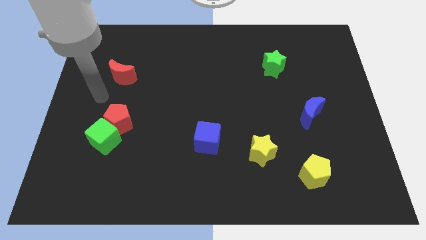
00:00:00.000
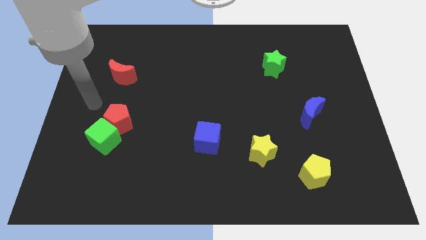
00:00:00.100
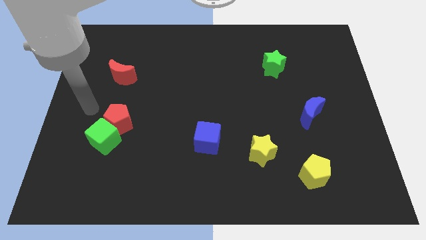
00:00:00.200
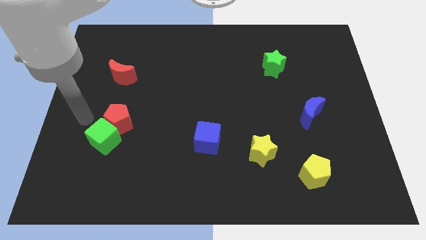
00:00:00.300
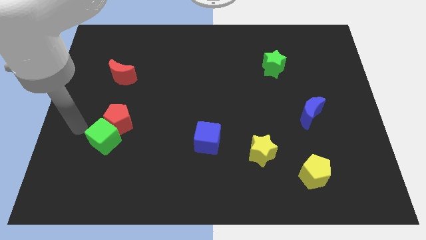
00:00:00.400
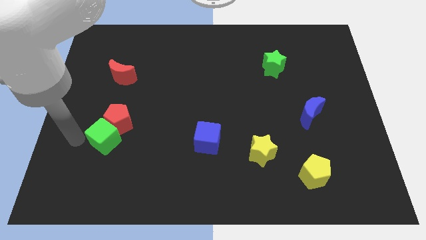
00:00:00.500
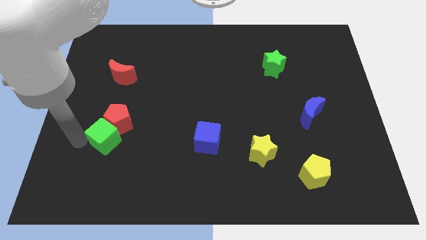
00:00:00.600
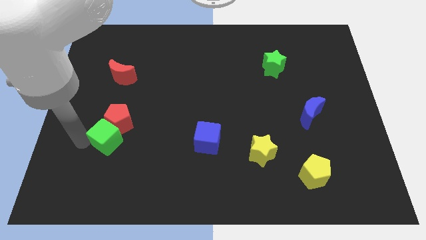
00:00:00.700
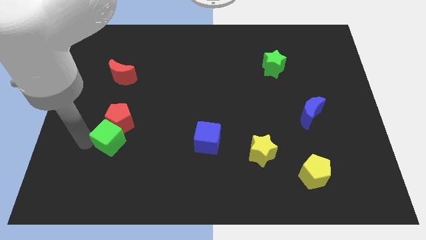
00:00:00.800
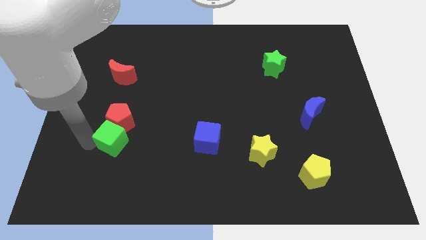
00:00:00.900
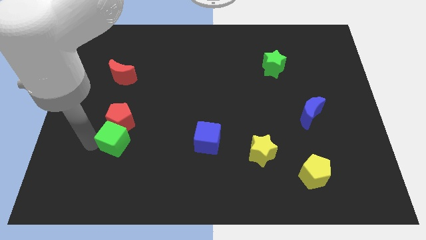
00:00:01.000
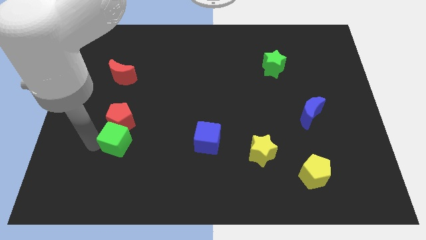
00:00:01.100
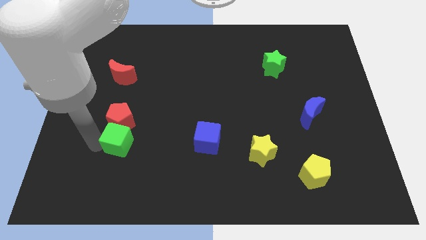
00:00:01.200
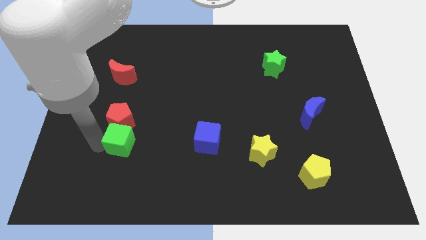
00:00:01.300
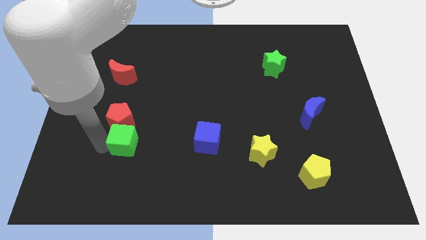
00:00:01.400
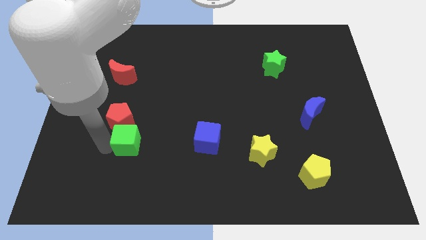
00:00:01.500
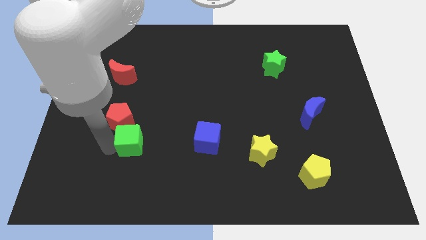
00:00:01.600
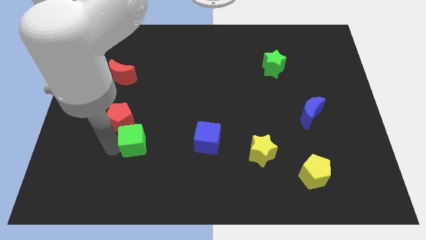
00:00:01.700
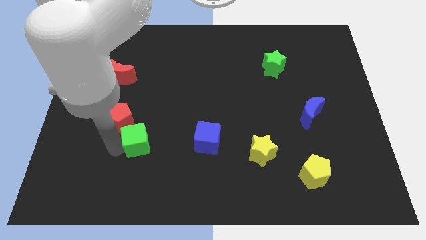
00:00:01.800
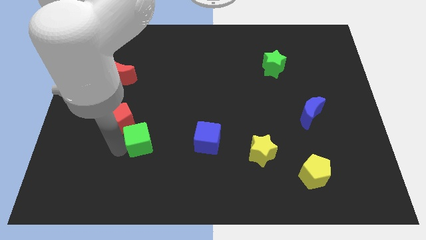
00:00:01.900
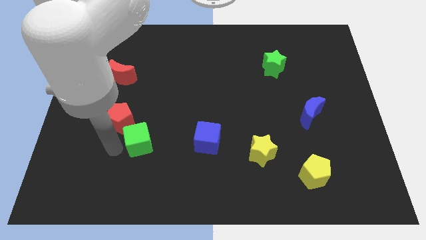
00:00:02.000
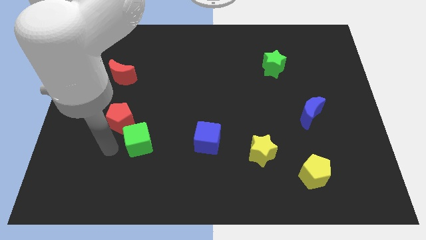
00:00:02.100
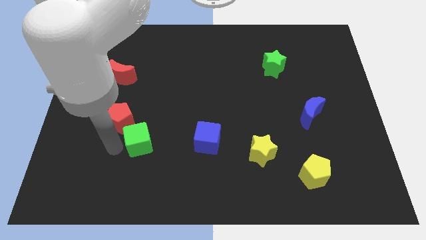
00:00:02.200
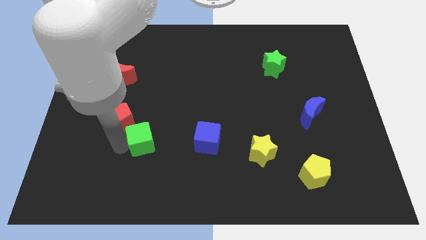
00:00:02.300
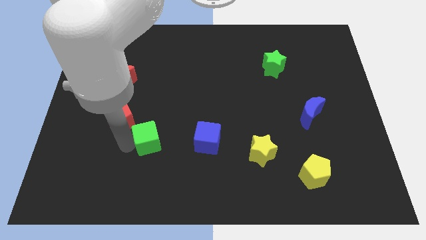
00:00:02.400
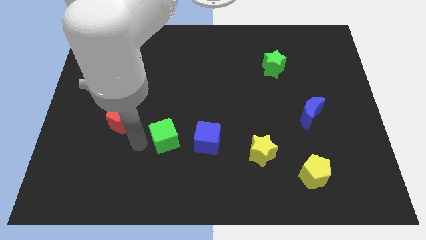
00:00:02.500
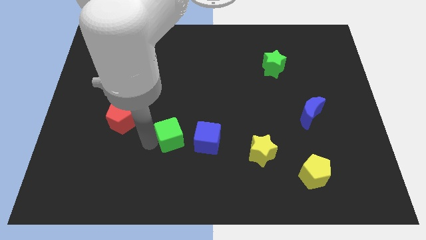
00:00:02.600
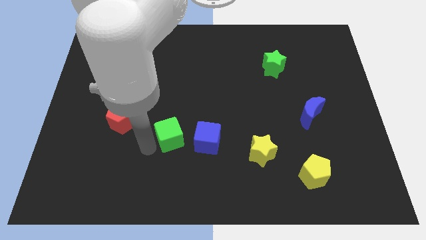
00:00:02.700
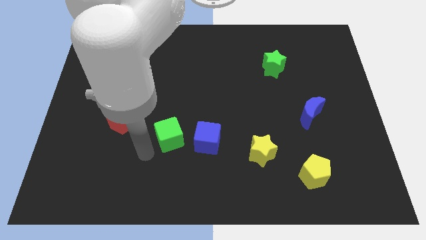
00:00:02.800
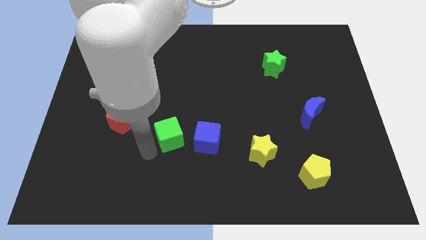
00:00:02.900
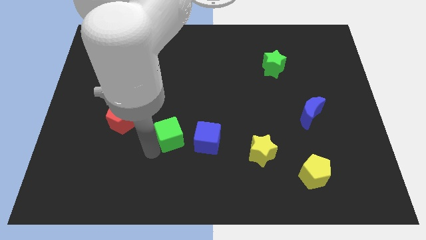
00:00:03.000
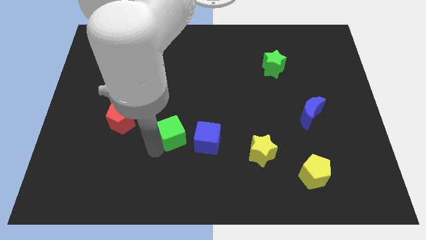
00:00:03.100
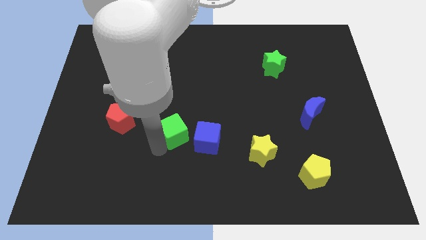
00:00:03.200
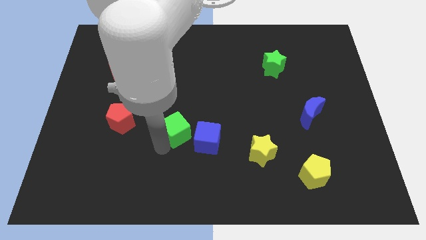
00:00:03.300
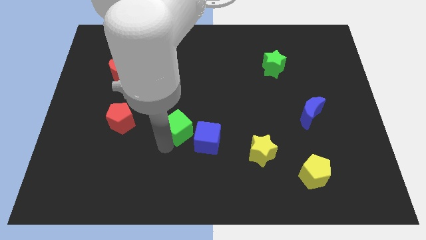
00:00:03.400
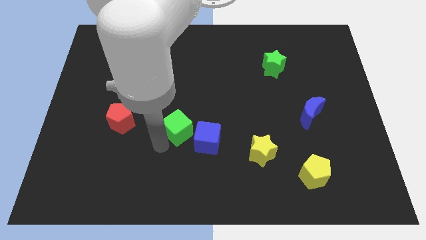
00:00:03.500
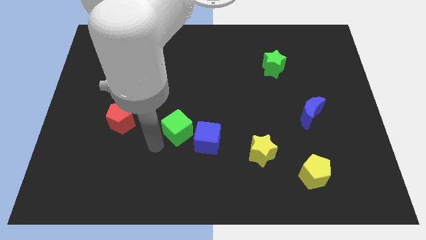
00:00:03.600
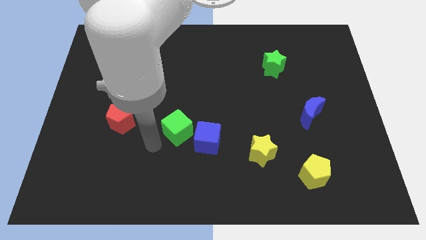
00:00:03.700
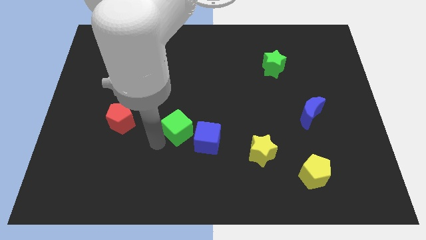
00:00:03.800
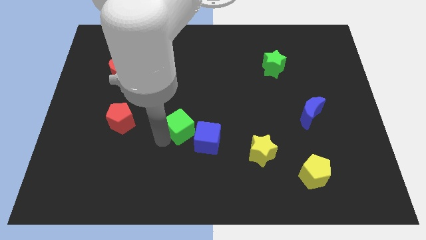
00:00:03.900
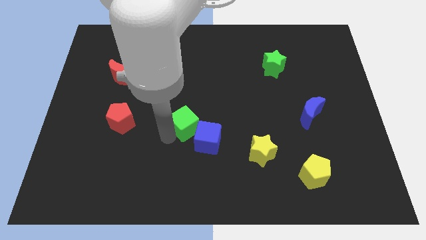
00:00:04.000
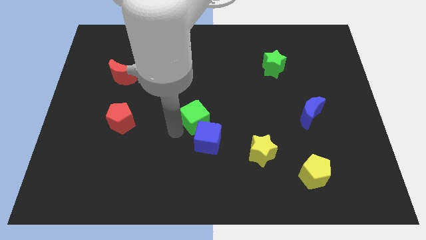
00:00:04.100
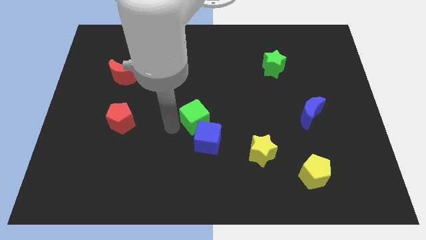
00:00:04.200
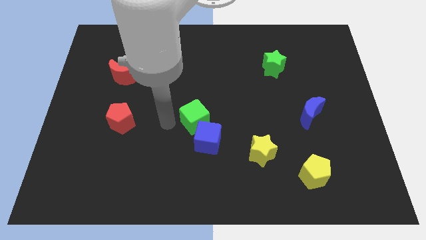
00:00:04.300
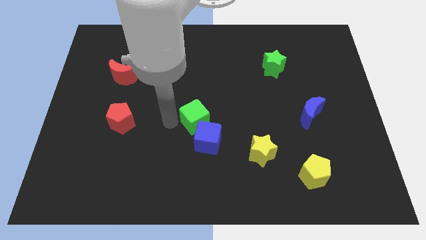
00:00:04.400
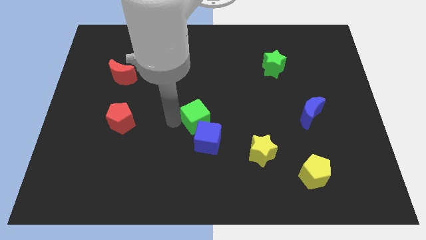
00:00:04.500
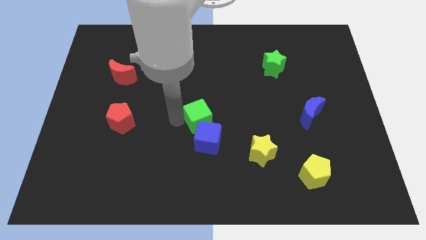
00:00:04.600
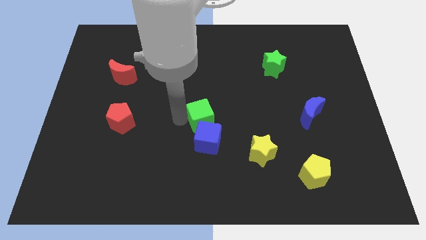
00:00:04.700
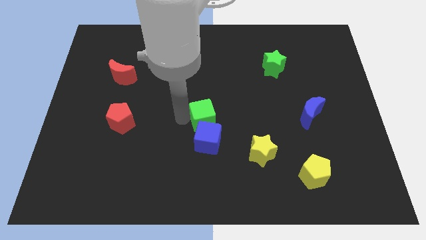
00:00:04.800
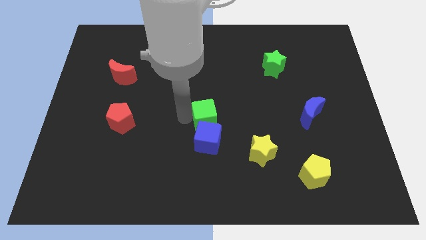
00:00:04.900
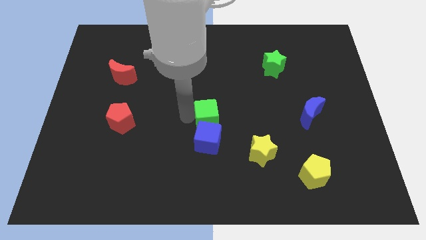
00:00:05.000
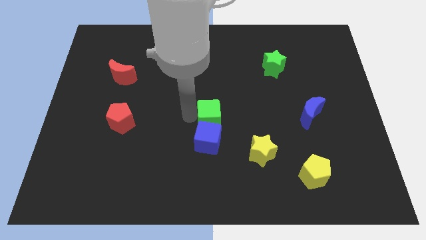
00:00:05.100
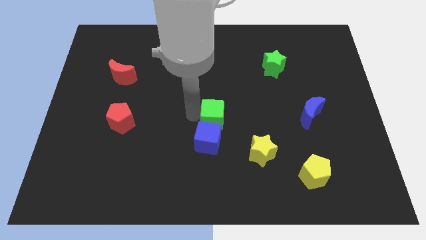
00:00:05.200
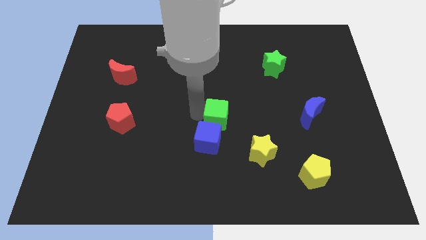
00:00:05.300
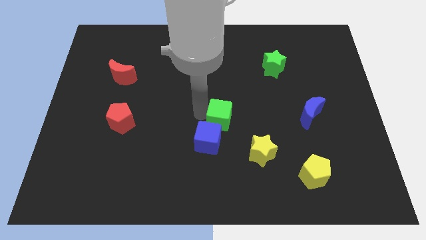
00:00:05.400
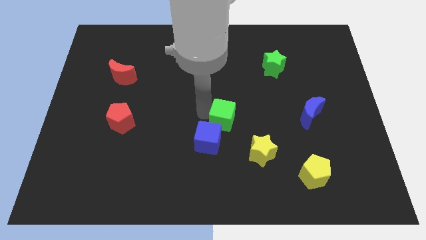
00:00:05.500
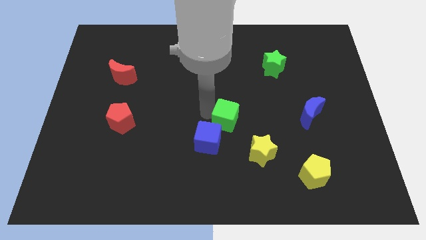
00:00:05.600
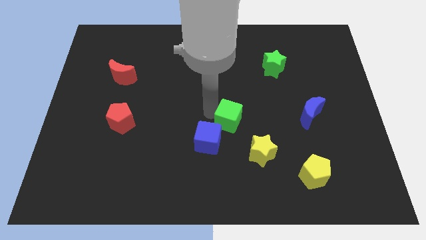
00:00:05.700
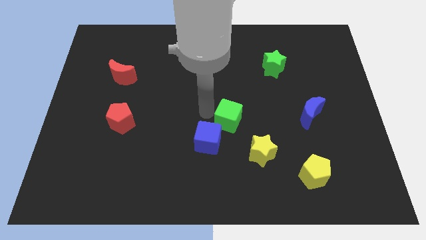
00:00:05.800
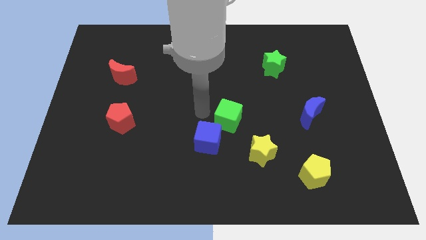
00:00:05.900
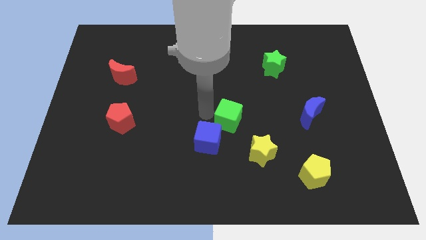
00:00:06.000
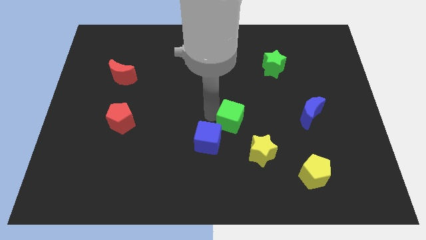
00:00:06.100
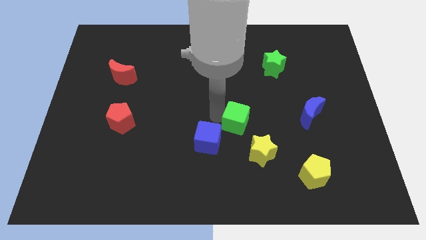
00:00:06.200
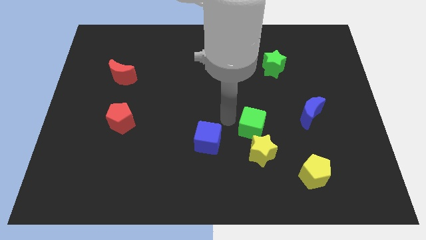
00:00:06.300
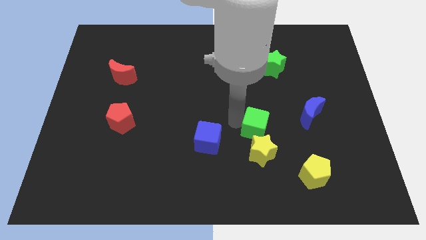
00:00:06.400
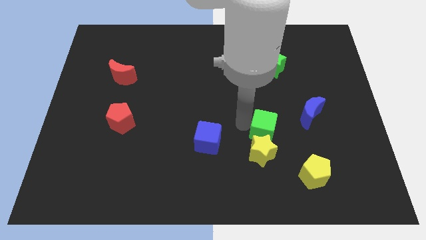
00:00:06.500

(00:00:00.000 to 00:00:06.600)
move the green cube diagonally up and to the right of the yellow star

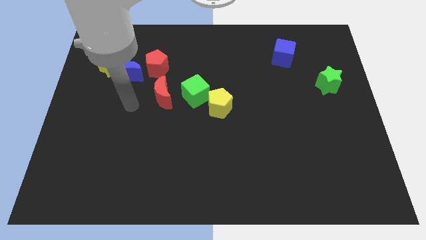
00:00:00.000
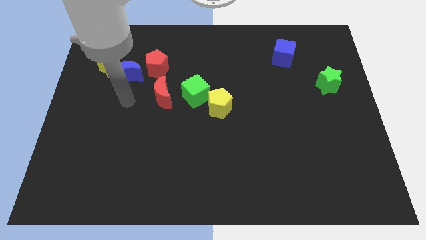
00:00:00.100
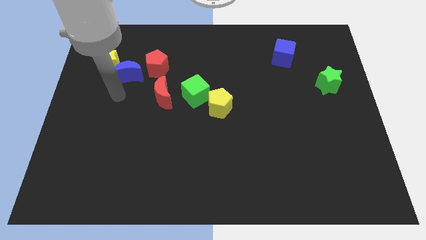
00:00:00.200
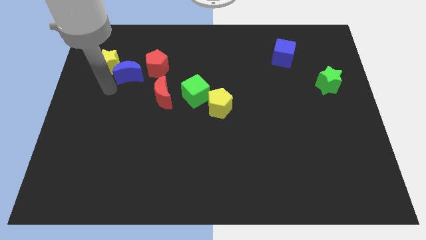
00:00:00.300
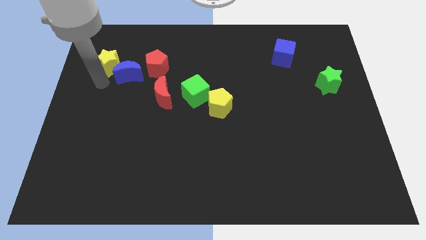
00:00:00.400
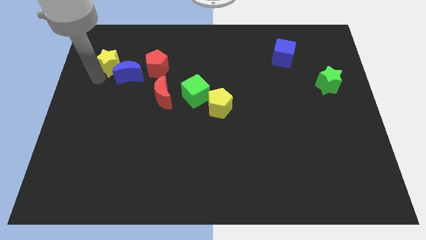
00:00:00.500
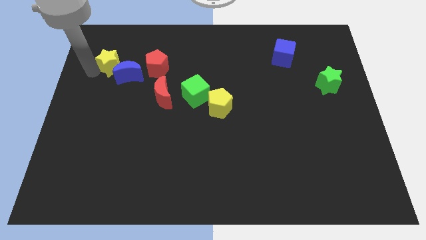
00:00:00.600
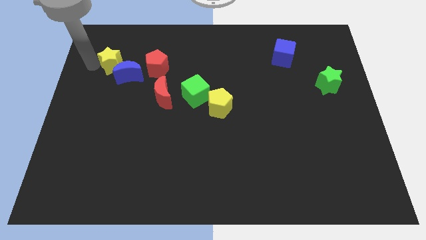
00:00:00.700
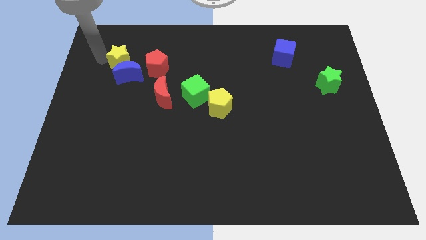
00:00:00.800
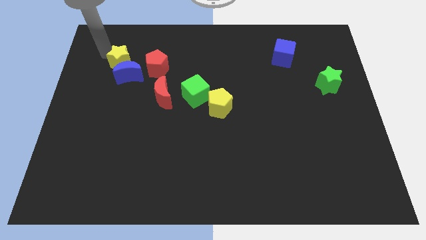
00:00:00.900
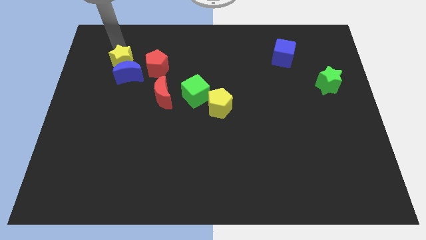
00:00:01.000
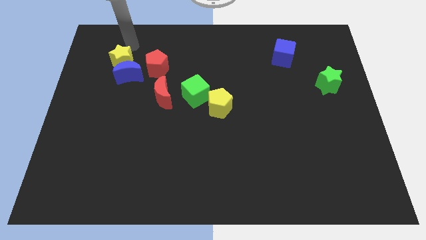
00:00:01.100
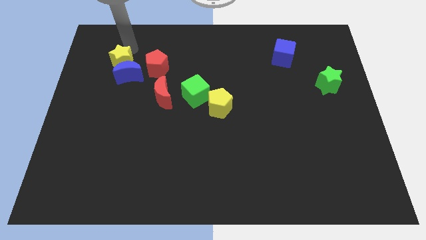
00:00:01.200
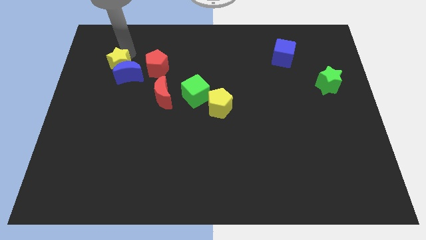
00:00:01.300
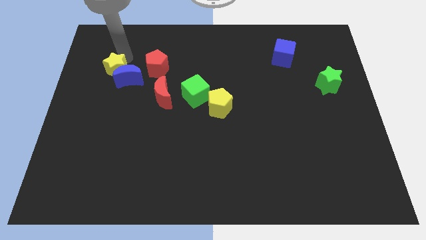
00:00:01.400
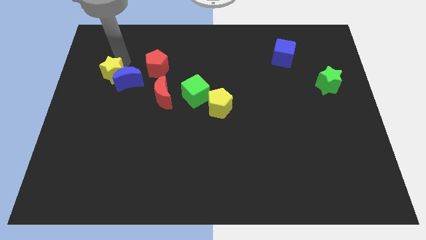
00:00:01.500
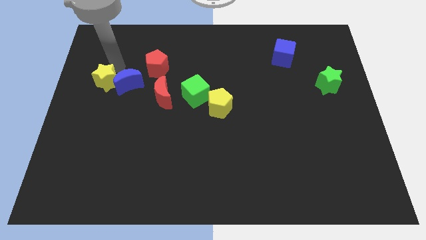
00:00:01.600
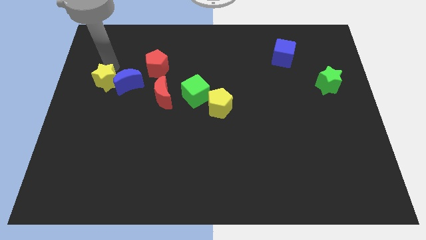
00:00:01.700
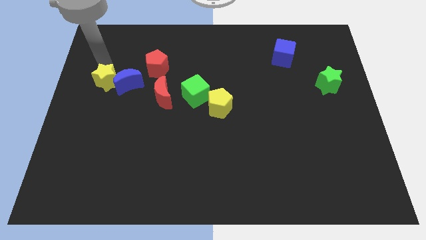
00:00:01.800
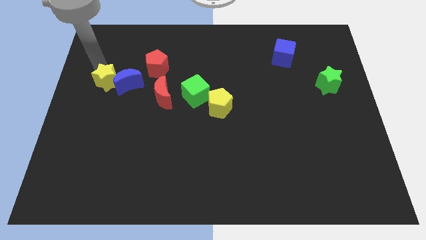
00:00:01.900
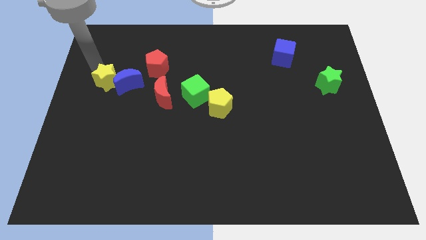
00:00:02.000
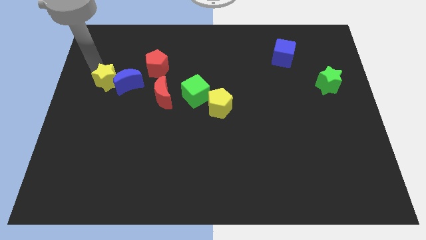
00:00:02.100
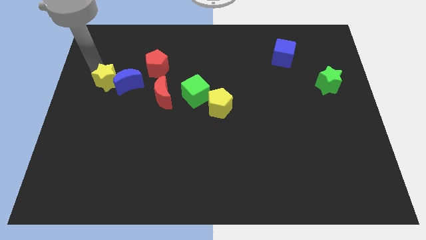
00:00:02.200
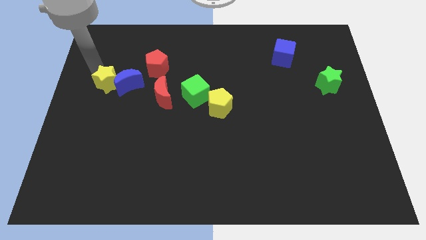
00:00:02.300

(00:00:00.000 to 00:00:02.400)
put the yellow star to the left side of the red moon
